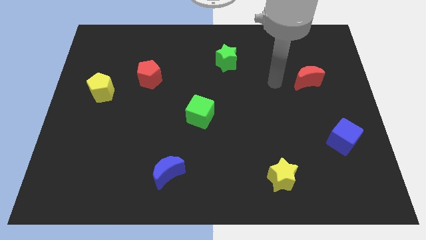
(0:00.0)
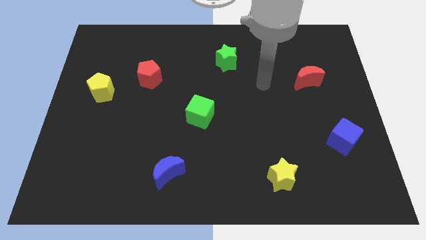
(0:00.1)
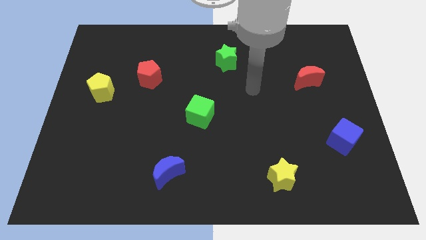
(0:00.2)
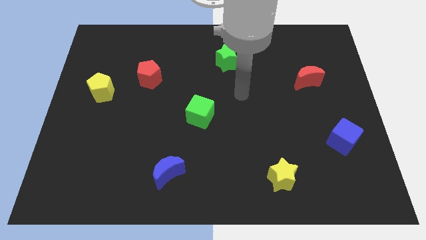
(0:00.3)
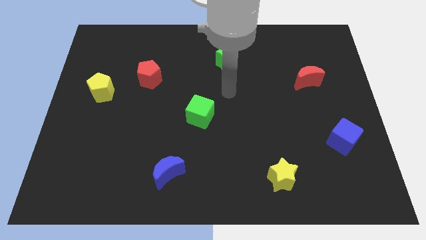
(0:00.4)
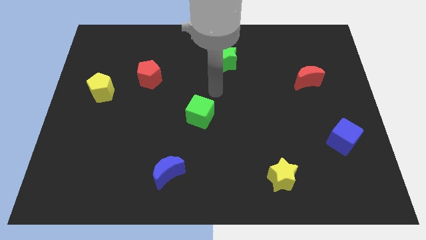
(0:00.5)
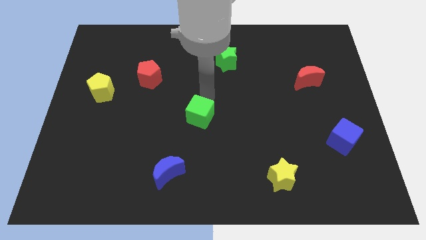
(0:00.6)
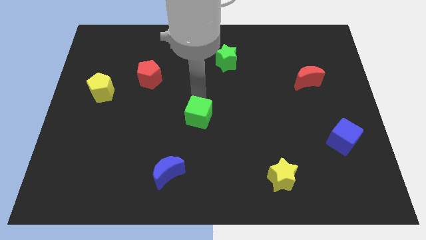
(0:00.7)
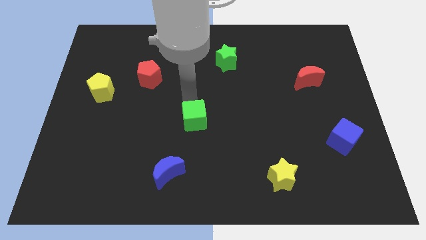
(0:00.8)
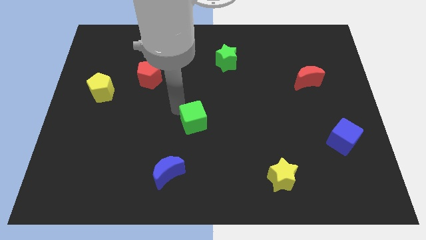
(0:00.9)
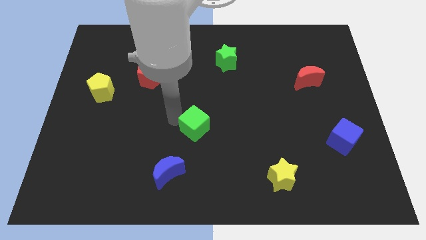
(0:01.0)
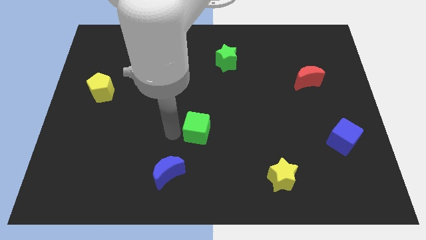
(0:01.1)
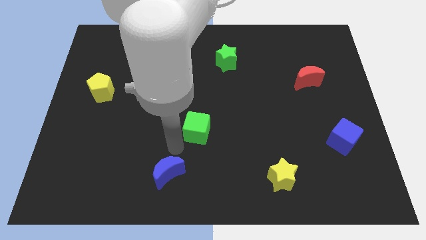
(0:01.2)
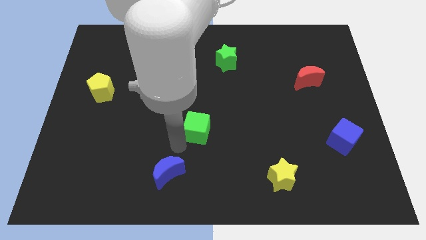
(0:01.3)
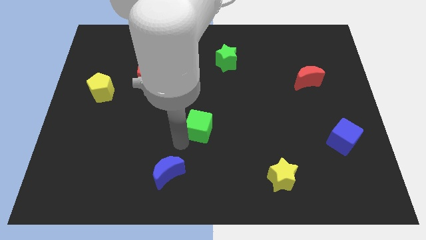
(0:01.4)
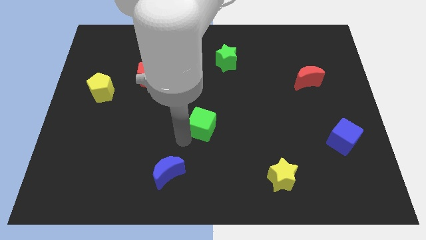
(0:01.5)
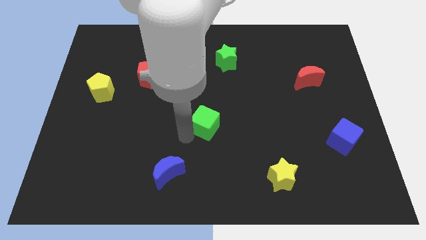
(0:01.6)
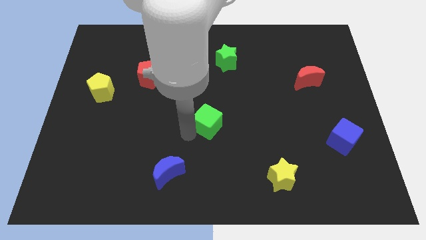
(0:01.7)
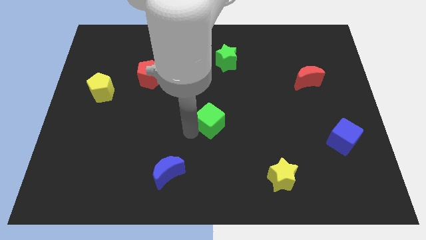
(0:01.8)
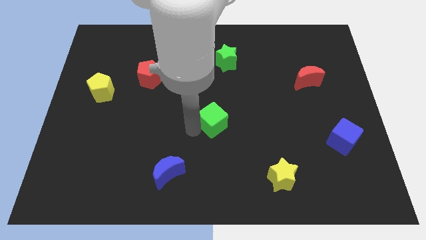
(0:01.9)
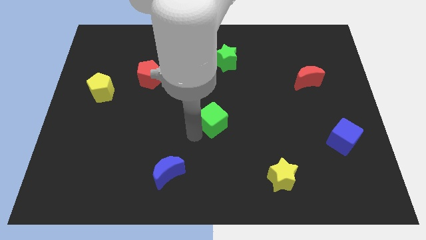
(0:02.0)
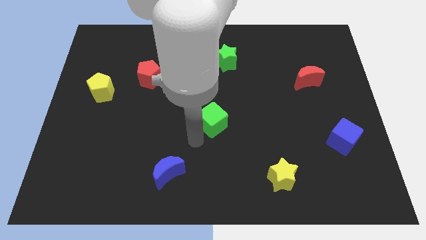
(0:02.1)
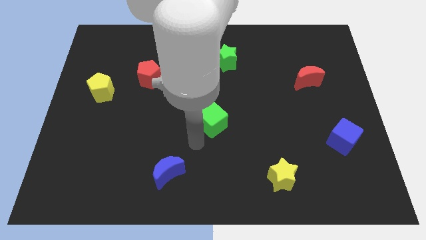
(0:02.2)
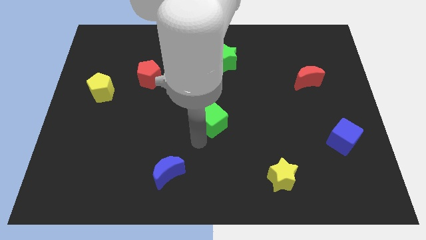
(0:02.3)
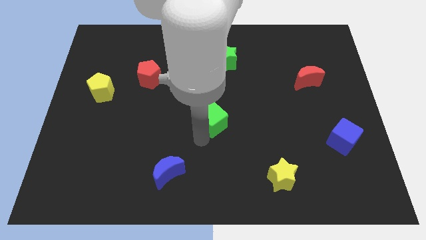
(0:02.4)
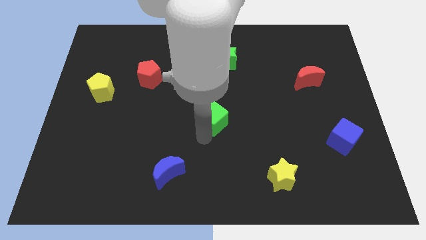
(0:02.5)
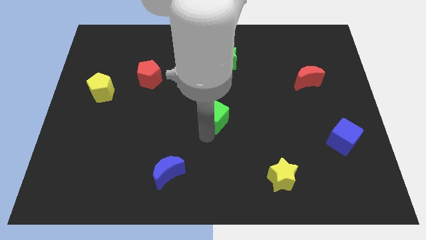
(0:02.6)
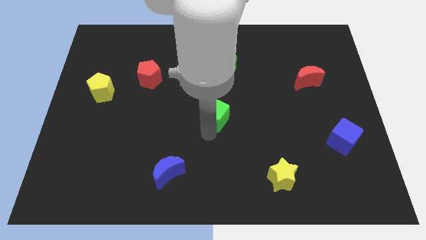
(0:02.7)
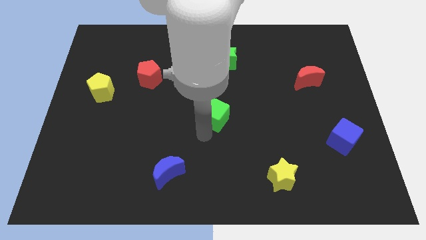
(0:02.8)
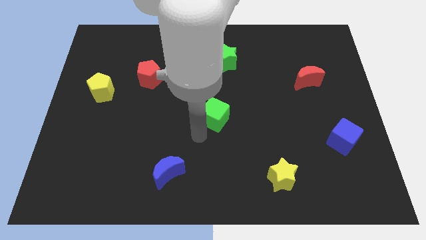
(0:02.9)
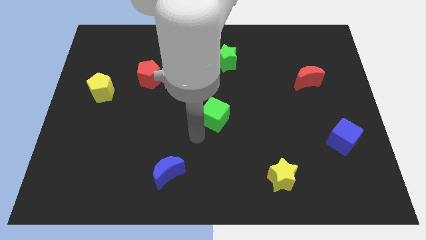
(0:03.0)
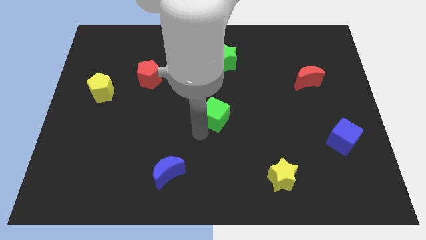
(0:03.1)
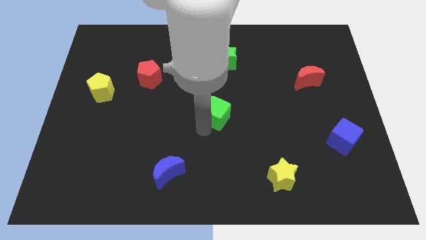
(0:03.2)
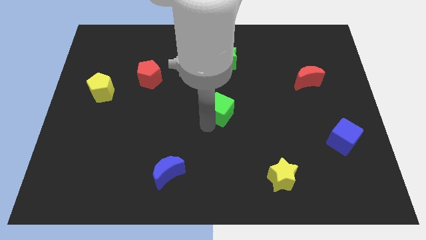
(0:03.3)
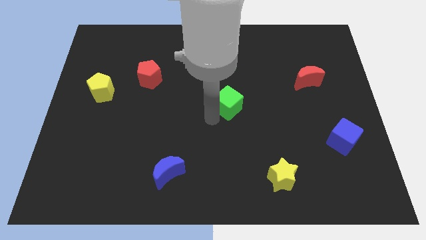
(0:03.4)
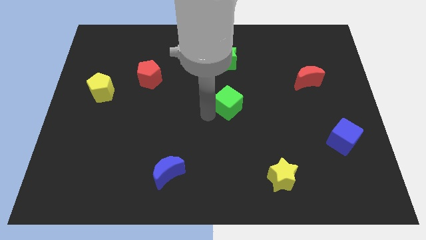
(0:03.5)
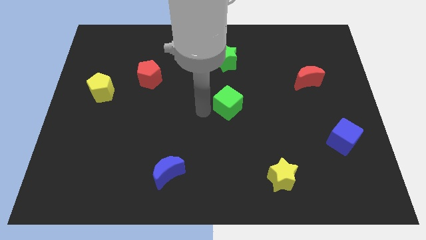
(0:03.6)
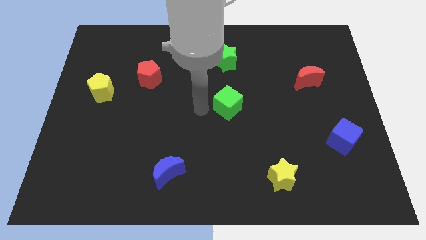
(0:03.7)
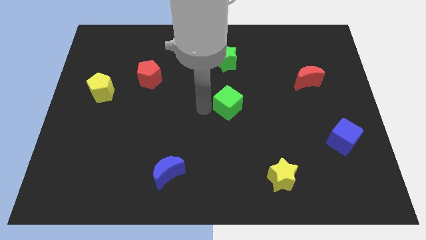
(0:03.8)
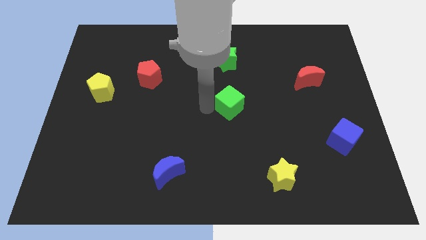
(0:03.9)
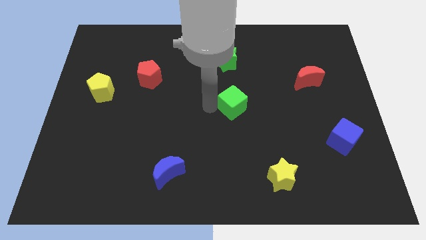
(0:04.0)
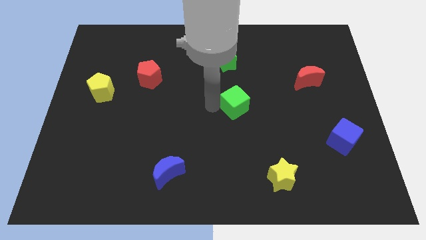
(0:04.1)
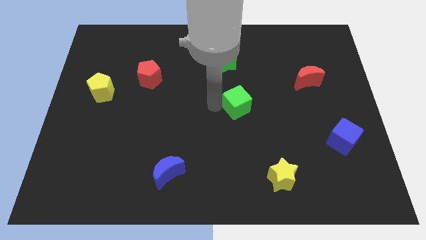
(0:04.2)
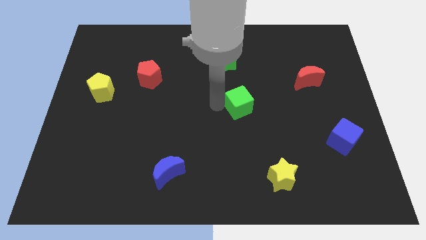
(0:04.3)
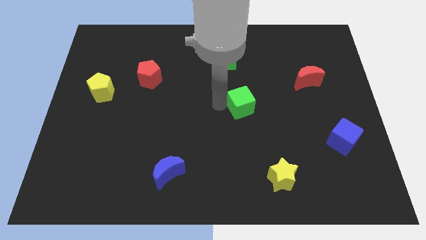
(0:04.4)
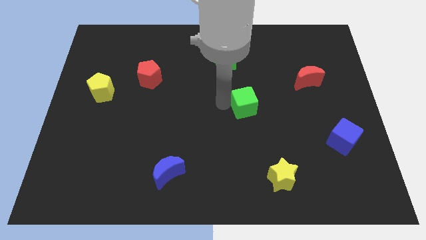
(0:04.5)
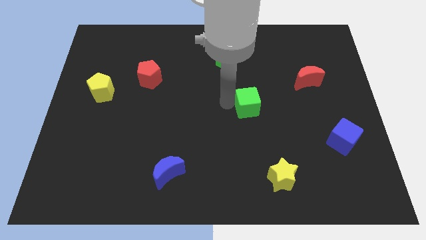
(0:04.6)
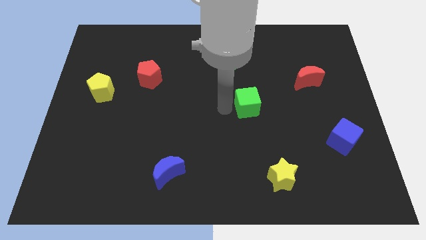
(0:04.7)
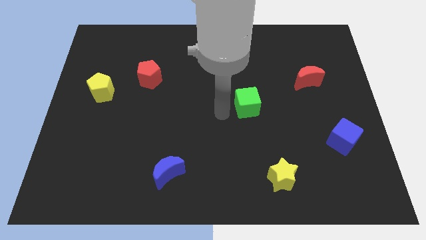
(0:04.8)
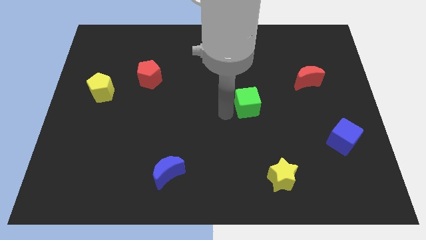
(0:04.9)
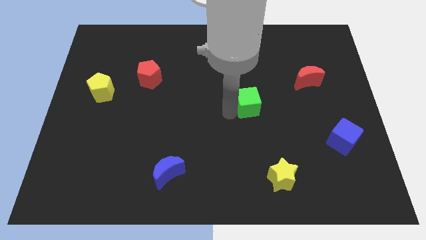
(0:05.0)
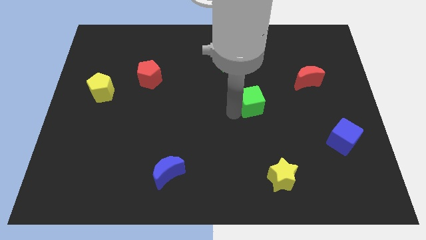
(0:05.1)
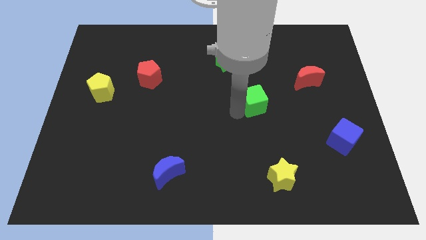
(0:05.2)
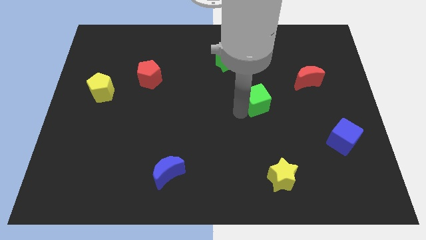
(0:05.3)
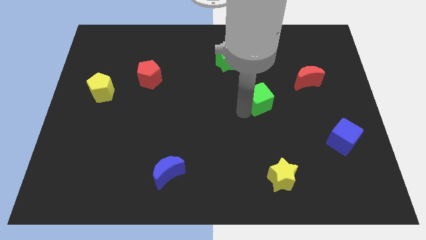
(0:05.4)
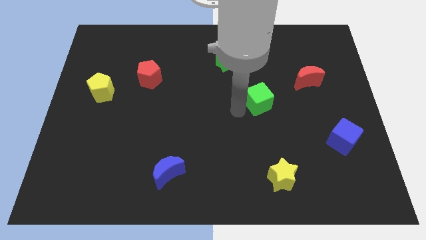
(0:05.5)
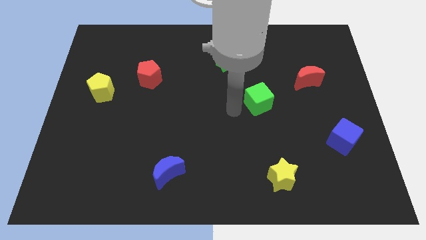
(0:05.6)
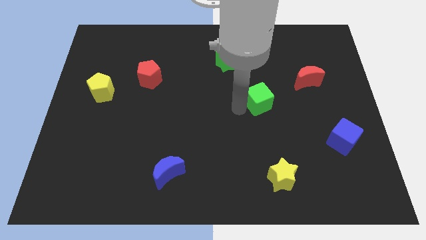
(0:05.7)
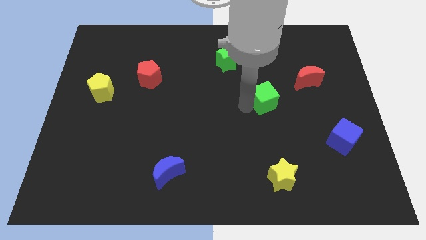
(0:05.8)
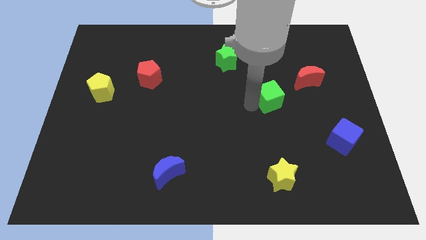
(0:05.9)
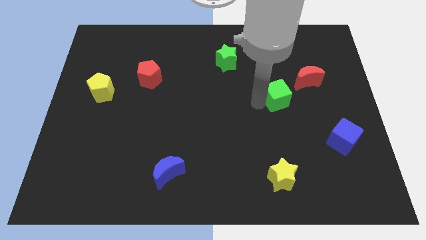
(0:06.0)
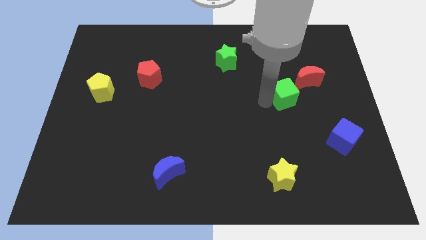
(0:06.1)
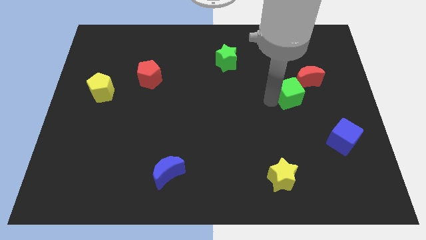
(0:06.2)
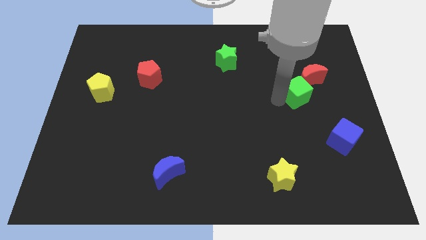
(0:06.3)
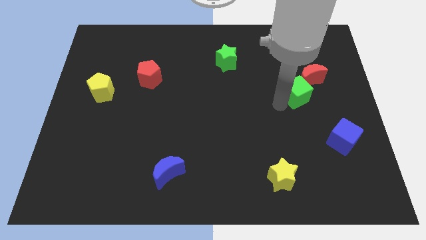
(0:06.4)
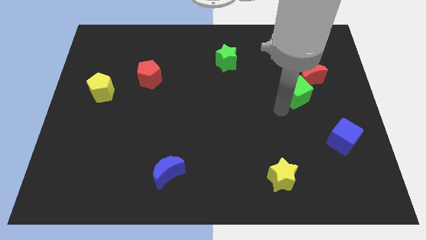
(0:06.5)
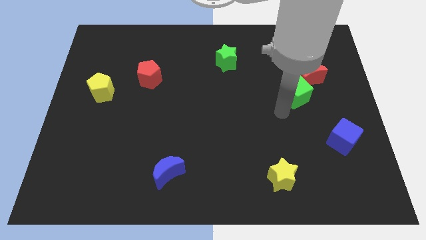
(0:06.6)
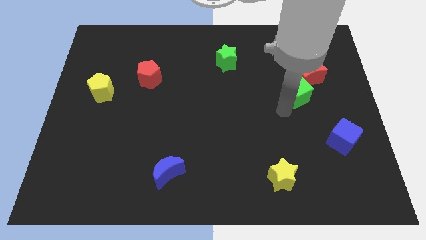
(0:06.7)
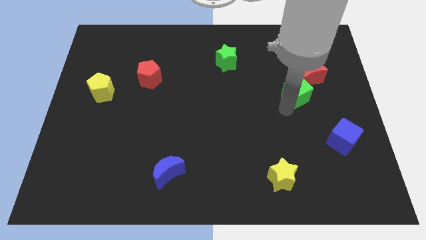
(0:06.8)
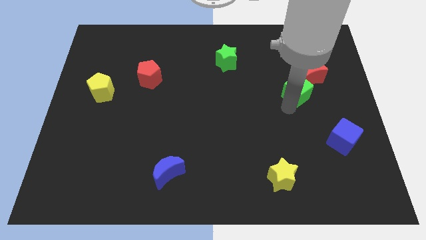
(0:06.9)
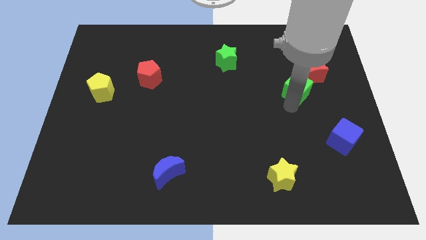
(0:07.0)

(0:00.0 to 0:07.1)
slide the green cube close to the red moon
